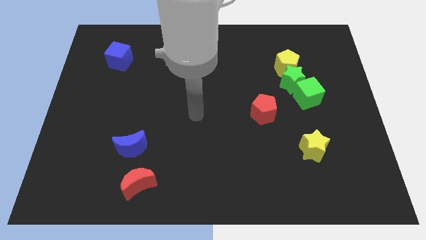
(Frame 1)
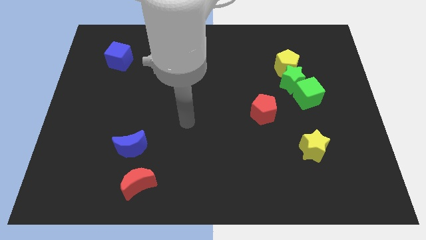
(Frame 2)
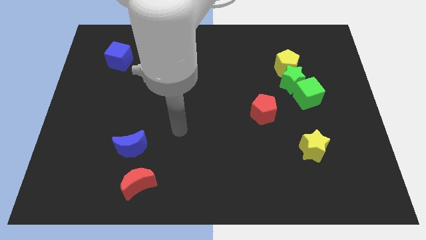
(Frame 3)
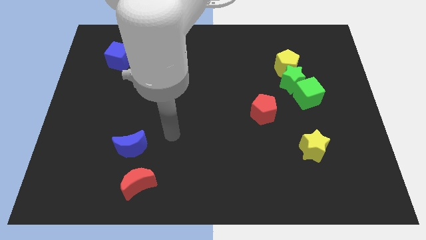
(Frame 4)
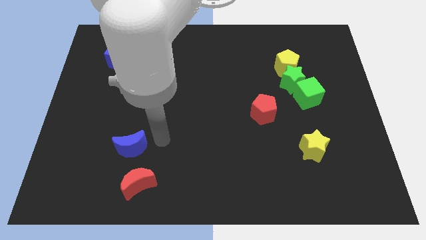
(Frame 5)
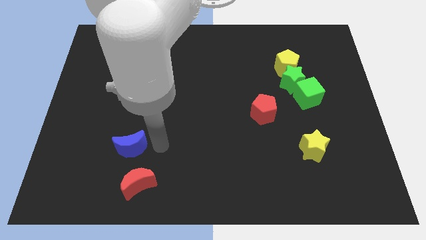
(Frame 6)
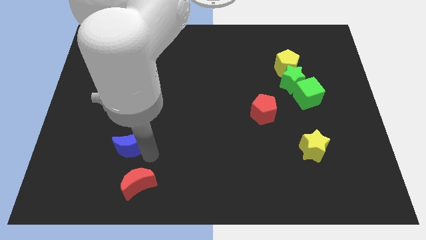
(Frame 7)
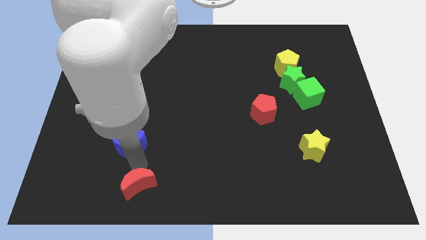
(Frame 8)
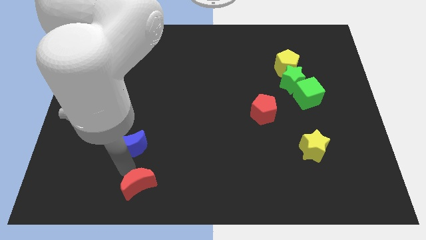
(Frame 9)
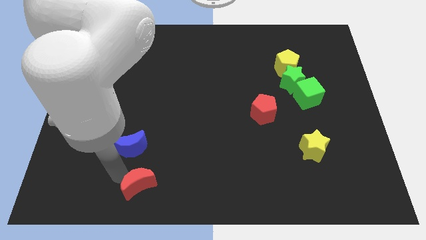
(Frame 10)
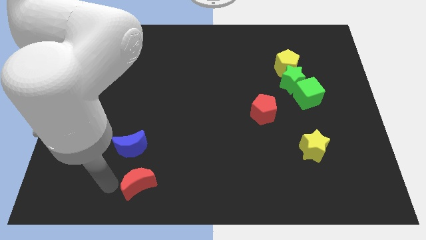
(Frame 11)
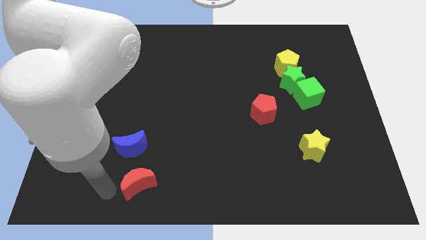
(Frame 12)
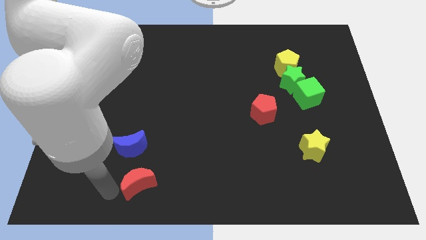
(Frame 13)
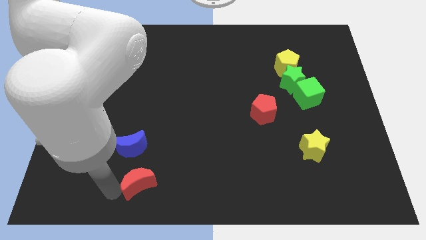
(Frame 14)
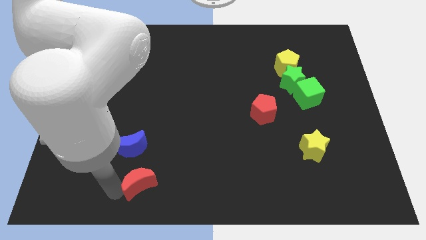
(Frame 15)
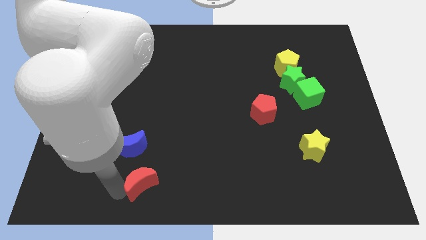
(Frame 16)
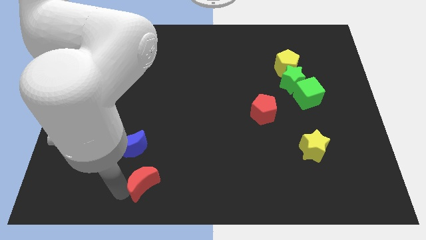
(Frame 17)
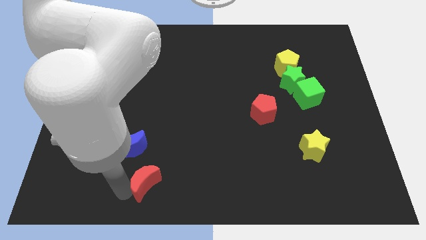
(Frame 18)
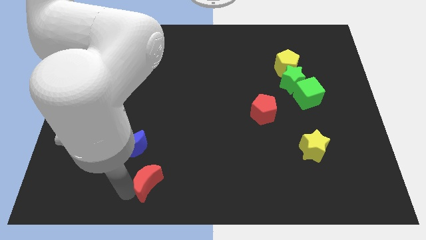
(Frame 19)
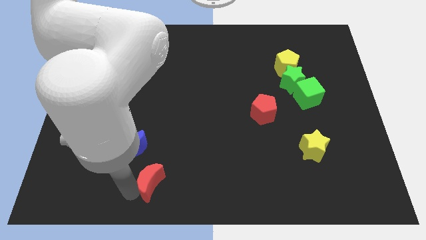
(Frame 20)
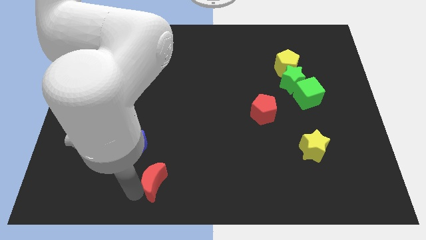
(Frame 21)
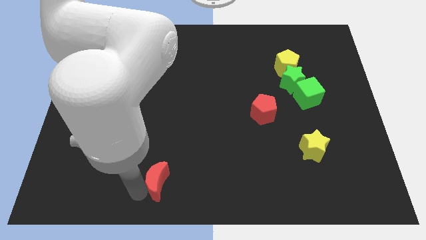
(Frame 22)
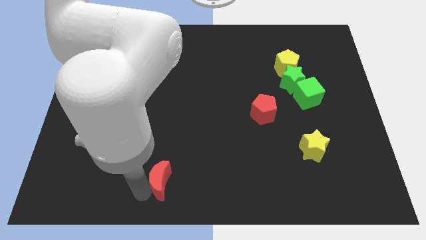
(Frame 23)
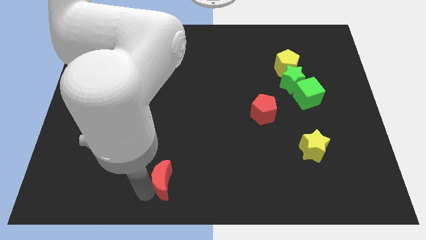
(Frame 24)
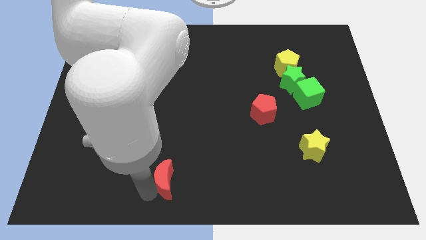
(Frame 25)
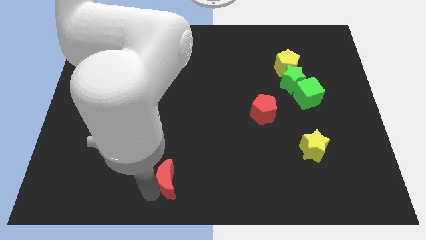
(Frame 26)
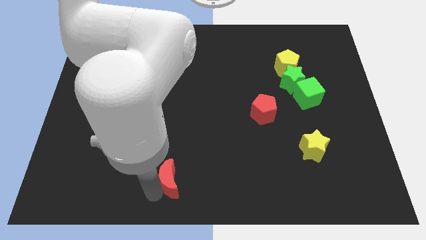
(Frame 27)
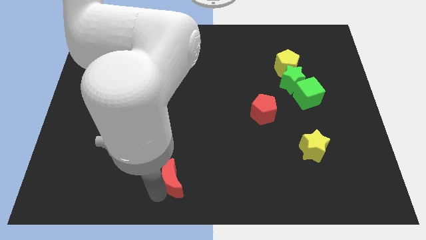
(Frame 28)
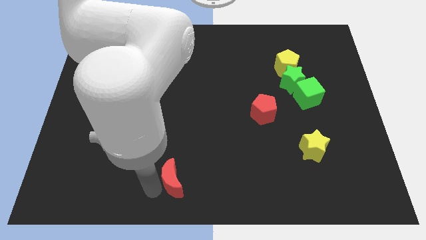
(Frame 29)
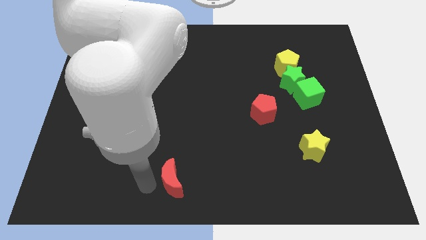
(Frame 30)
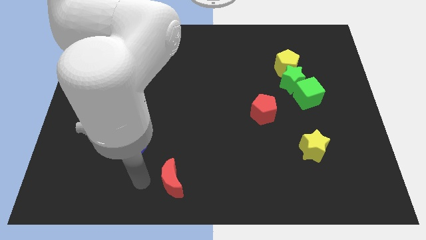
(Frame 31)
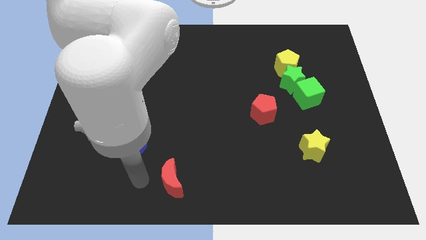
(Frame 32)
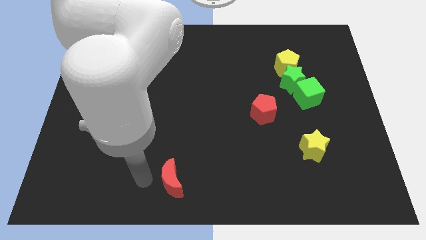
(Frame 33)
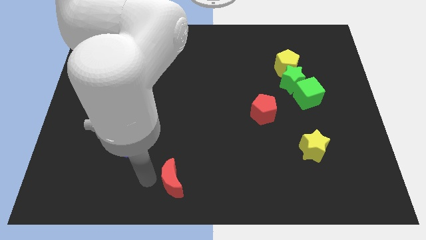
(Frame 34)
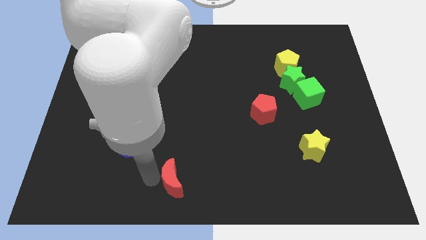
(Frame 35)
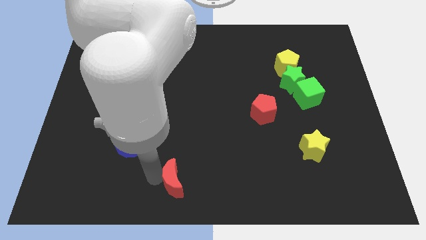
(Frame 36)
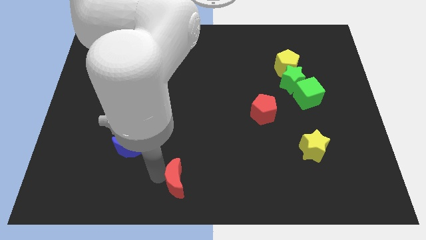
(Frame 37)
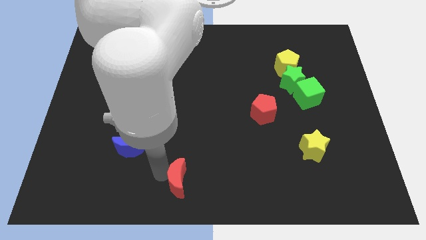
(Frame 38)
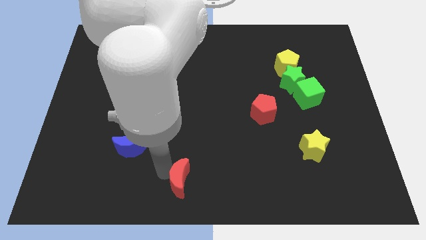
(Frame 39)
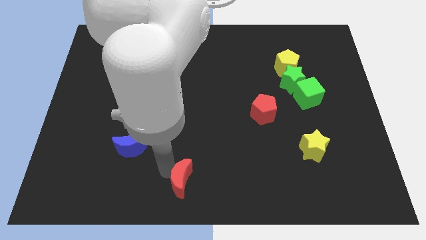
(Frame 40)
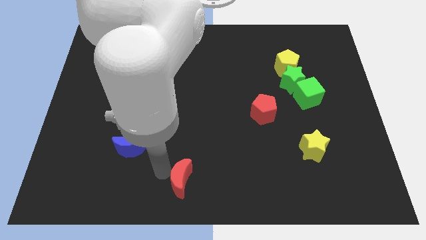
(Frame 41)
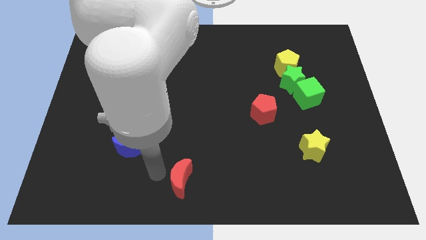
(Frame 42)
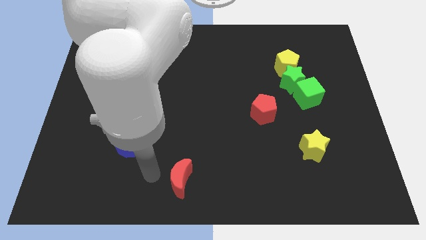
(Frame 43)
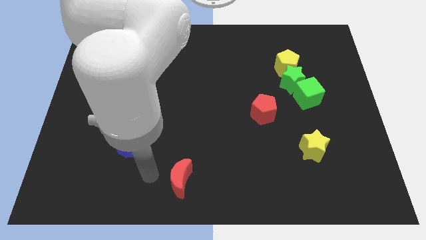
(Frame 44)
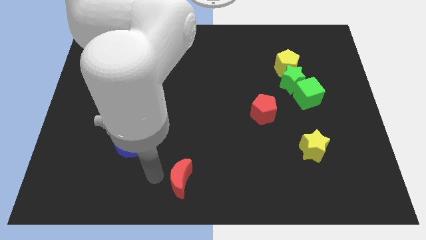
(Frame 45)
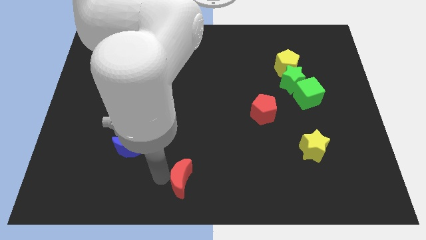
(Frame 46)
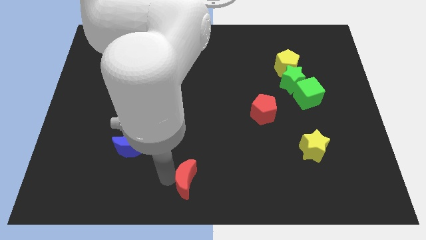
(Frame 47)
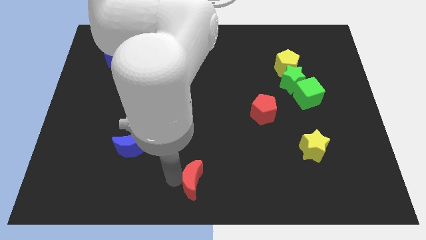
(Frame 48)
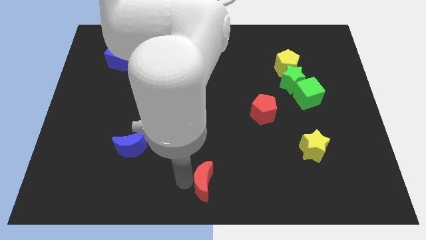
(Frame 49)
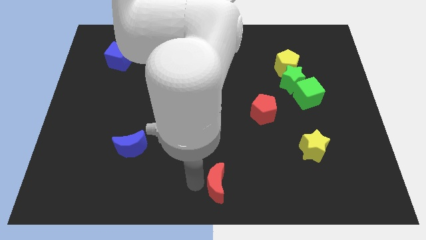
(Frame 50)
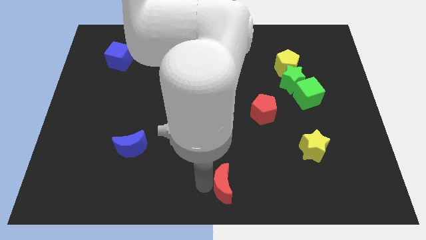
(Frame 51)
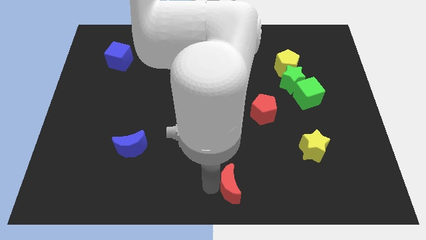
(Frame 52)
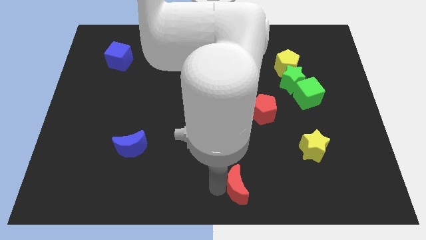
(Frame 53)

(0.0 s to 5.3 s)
push the red moon to the right

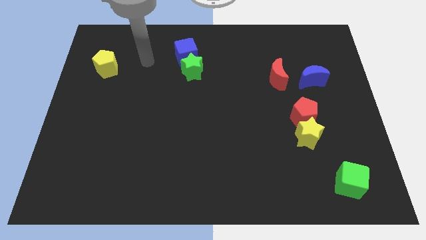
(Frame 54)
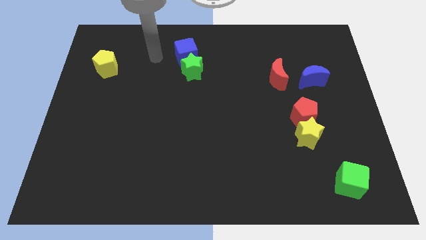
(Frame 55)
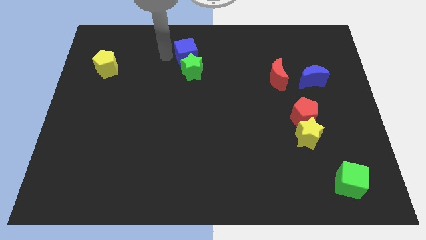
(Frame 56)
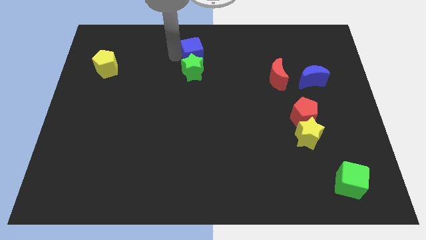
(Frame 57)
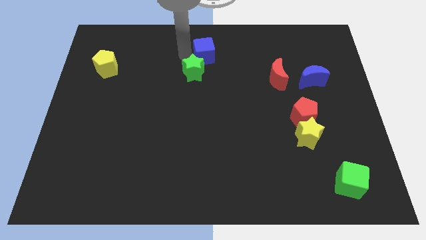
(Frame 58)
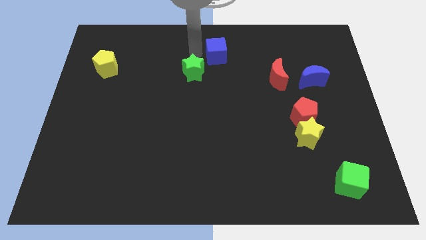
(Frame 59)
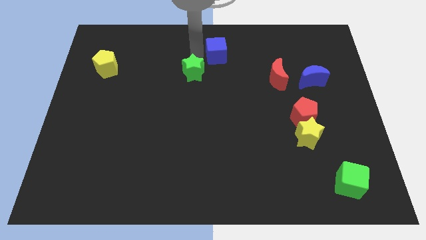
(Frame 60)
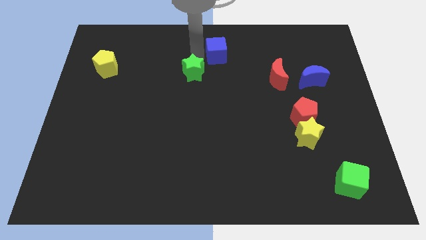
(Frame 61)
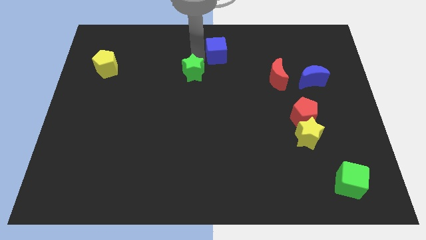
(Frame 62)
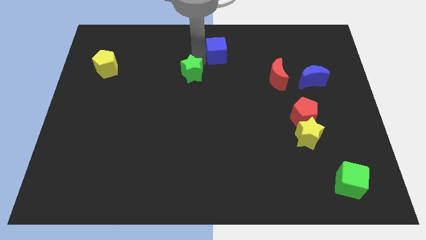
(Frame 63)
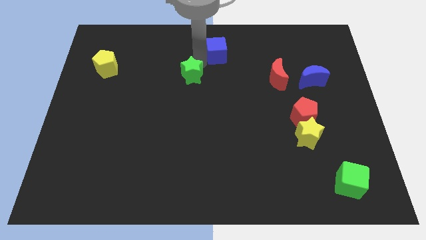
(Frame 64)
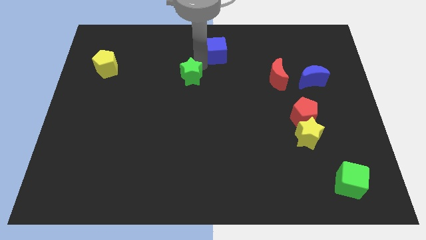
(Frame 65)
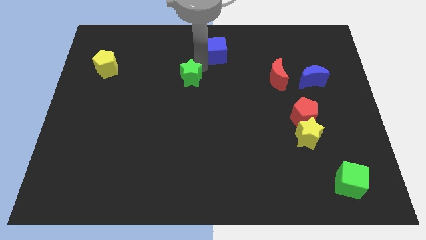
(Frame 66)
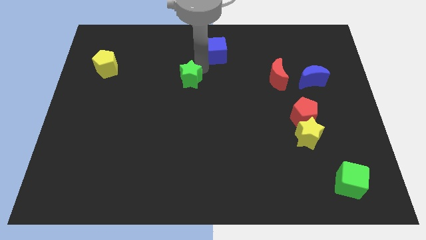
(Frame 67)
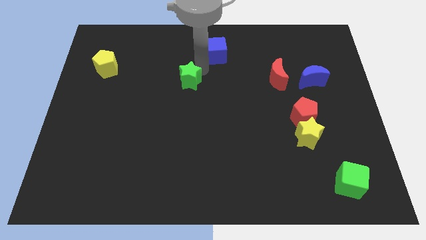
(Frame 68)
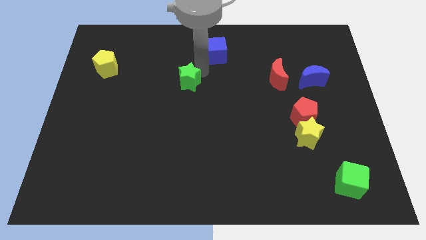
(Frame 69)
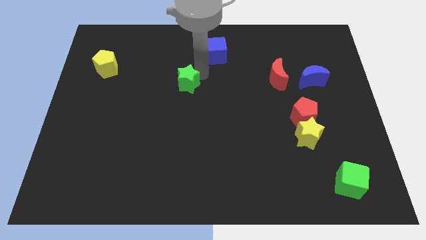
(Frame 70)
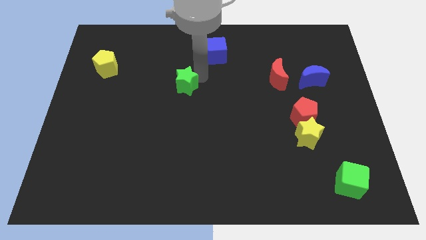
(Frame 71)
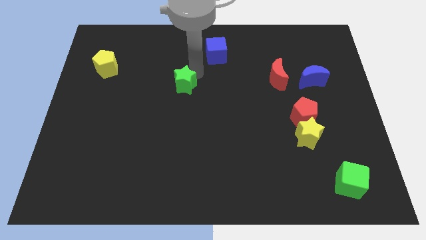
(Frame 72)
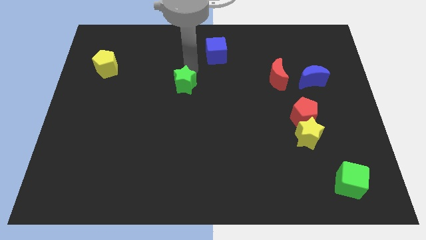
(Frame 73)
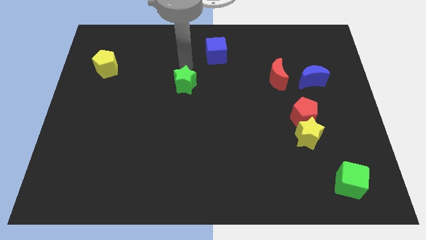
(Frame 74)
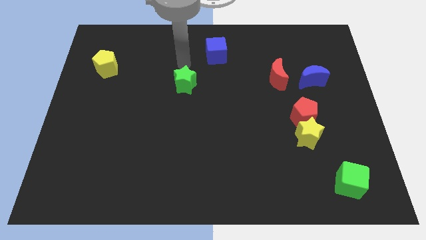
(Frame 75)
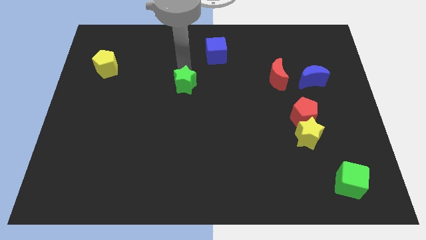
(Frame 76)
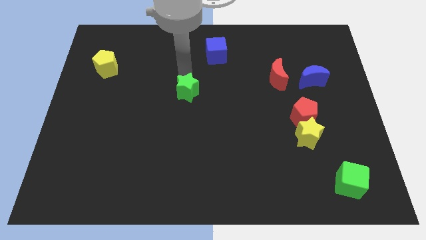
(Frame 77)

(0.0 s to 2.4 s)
push the green star slightly down

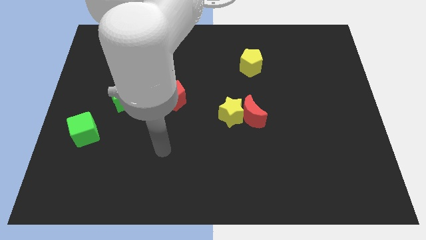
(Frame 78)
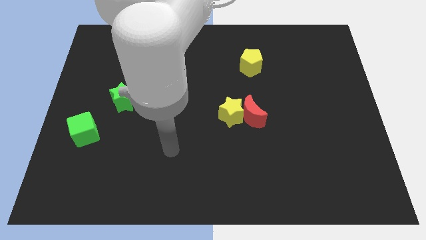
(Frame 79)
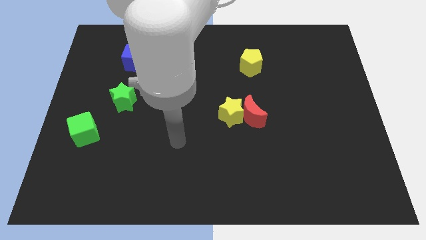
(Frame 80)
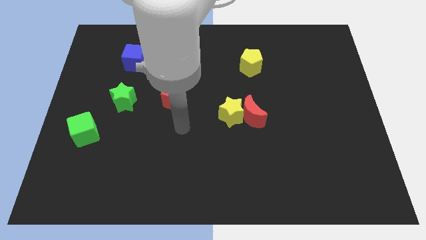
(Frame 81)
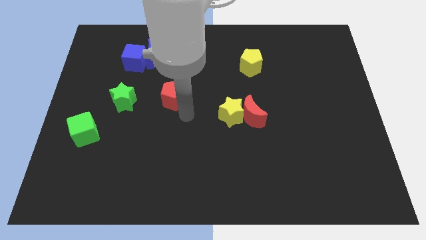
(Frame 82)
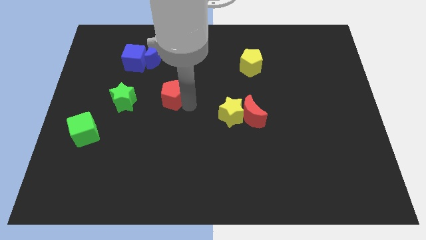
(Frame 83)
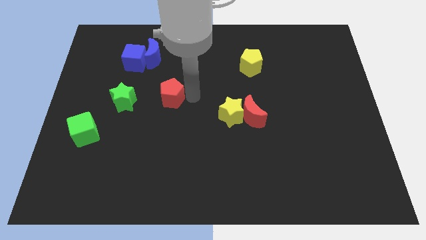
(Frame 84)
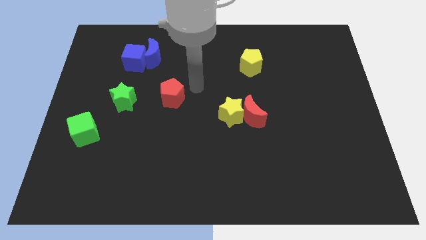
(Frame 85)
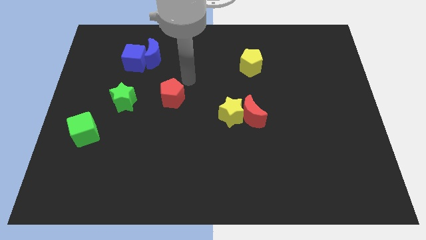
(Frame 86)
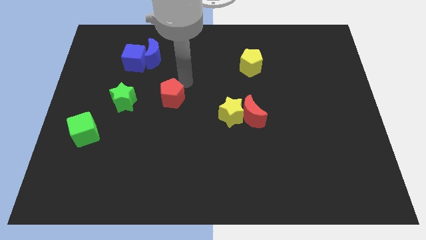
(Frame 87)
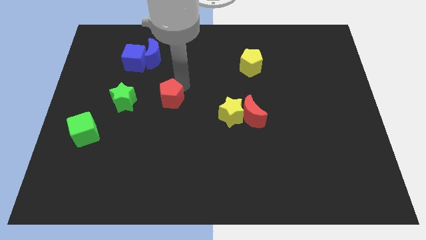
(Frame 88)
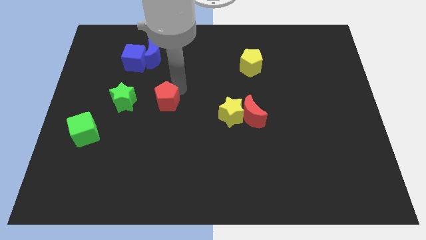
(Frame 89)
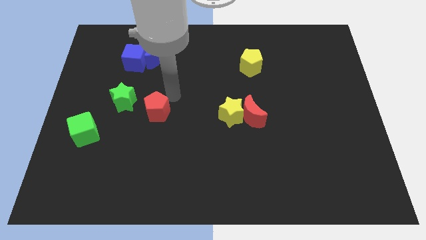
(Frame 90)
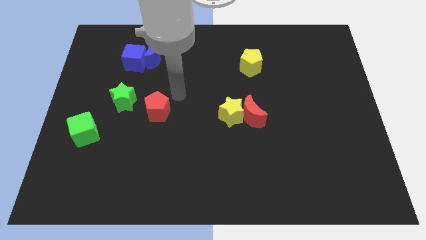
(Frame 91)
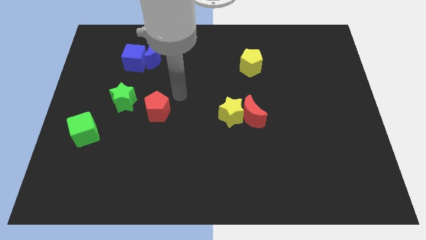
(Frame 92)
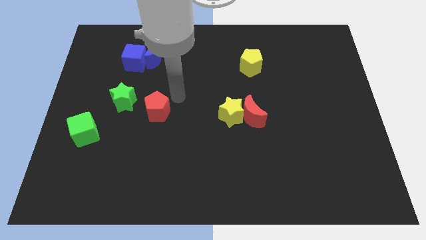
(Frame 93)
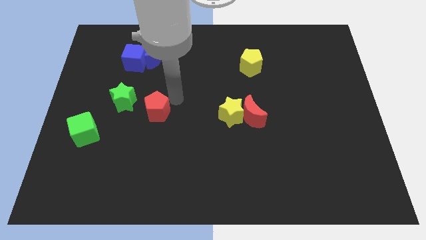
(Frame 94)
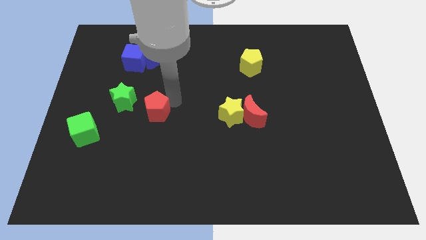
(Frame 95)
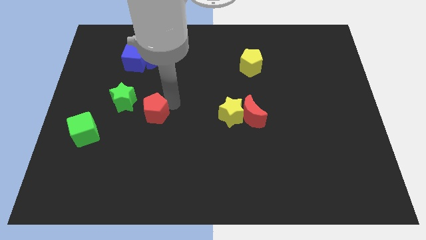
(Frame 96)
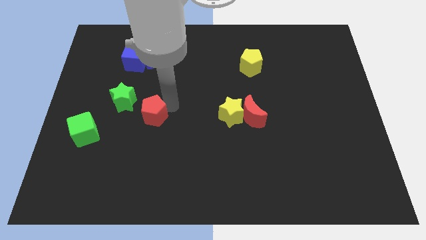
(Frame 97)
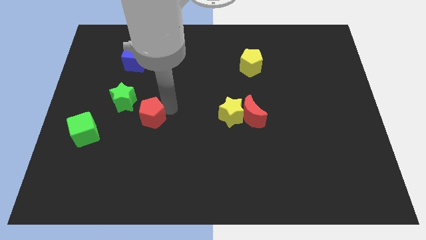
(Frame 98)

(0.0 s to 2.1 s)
slide the red pentagon downwards and to the left a little
